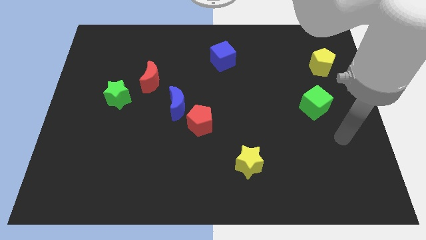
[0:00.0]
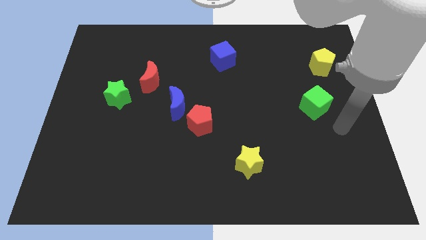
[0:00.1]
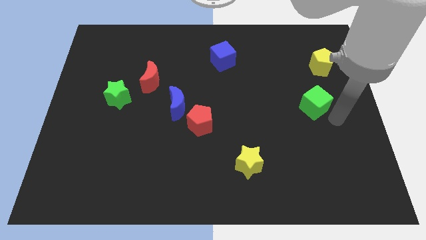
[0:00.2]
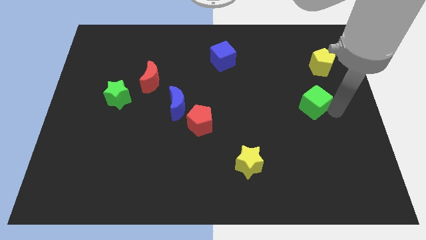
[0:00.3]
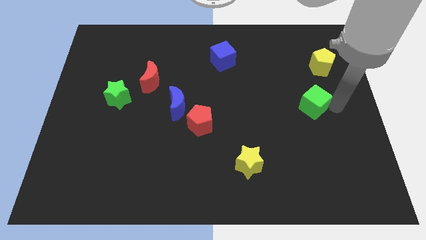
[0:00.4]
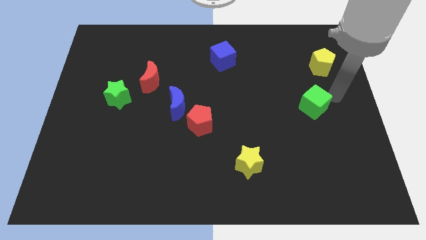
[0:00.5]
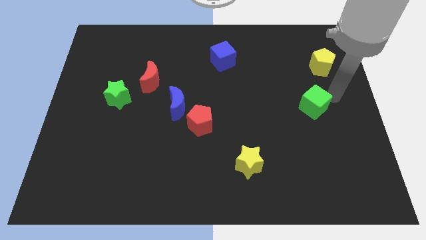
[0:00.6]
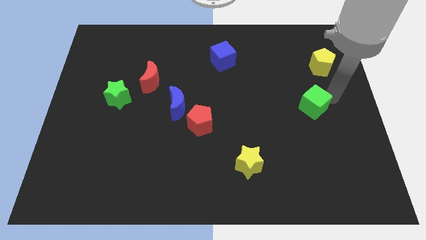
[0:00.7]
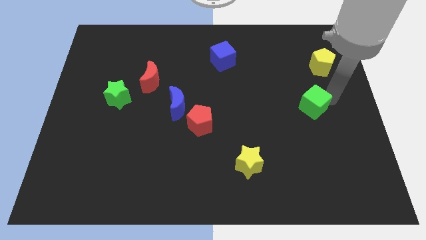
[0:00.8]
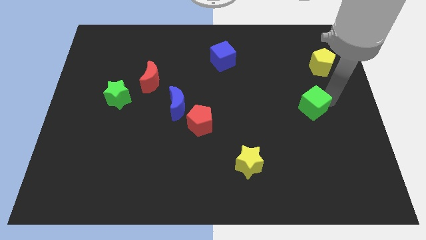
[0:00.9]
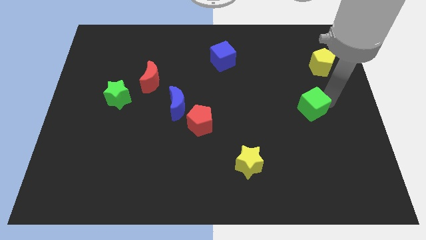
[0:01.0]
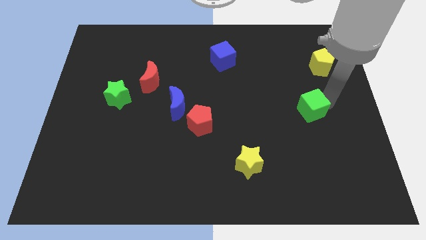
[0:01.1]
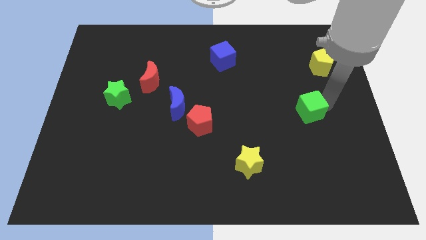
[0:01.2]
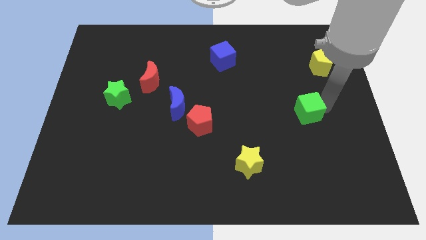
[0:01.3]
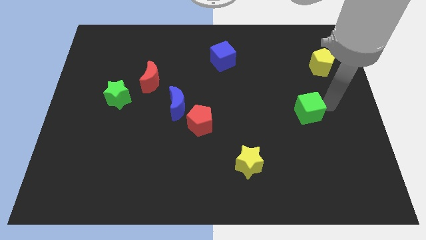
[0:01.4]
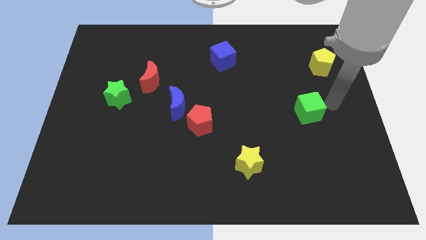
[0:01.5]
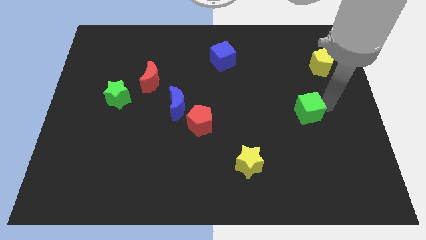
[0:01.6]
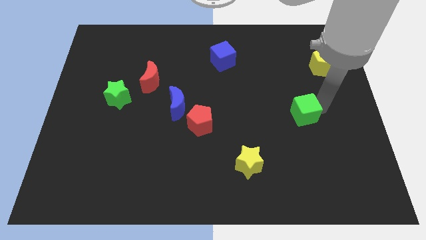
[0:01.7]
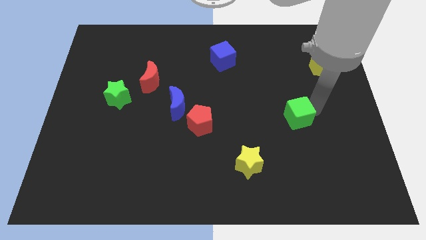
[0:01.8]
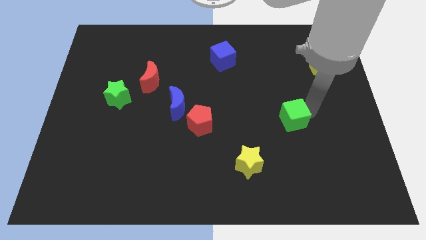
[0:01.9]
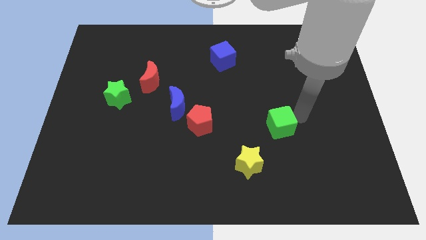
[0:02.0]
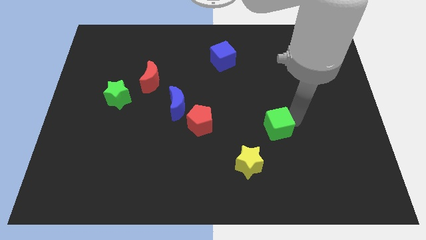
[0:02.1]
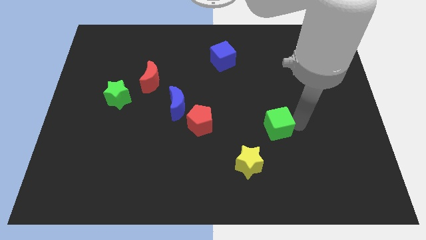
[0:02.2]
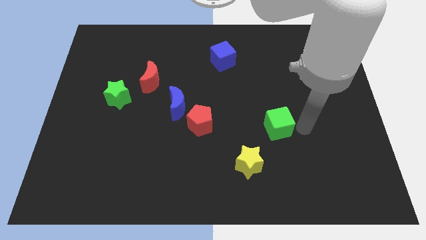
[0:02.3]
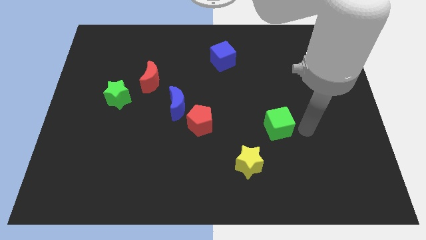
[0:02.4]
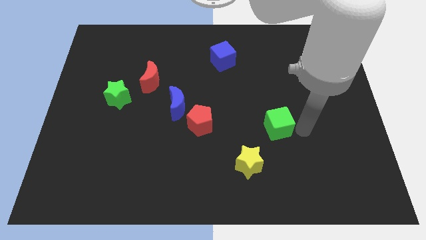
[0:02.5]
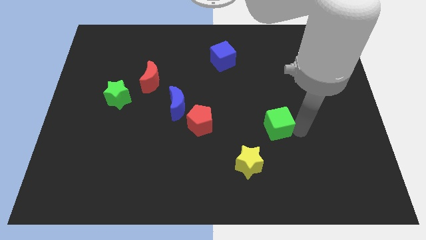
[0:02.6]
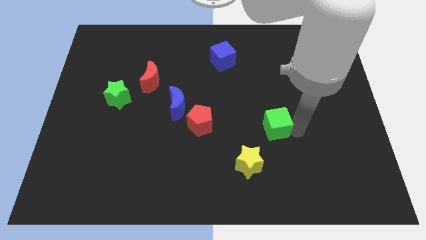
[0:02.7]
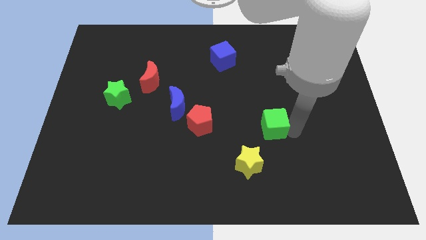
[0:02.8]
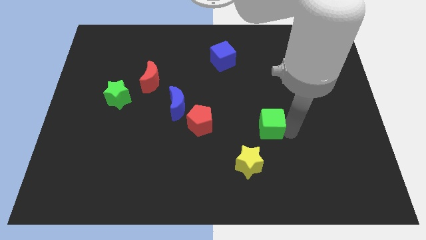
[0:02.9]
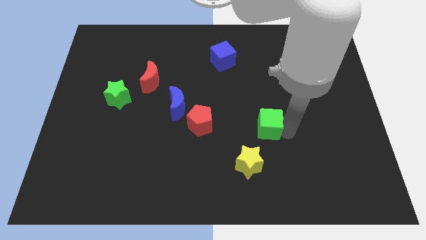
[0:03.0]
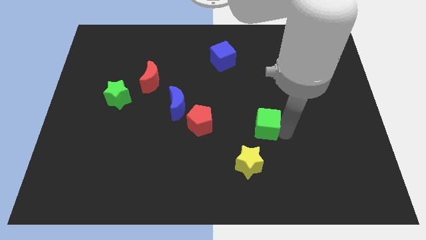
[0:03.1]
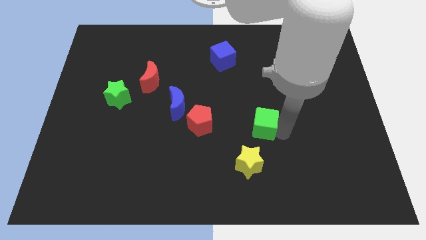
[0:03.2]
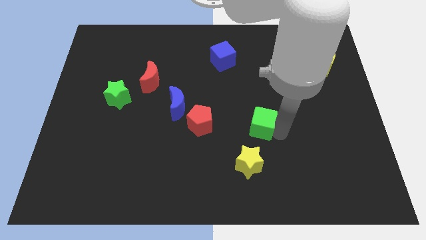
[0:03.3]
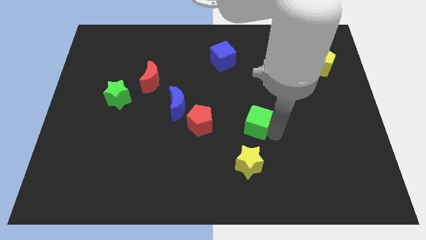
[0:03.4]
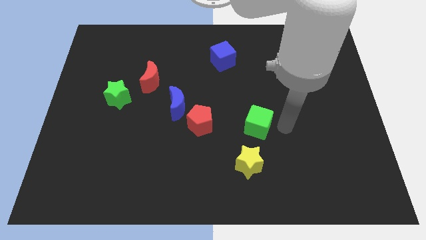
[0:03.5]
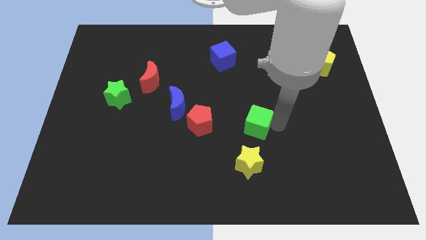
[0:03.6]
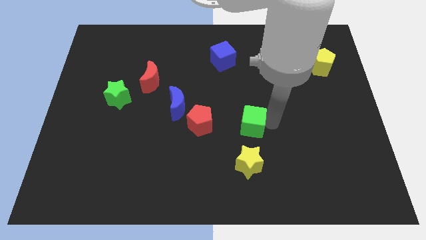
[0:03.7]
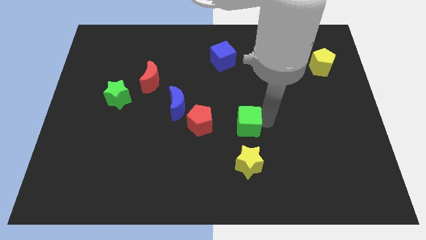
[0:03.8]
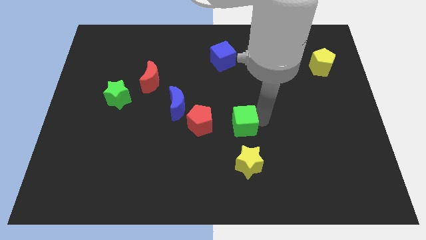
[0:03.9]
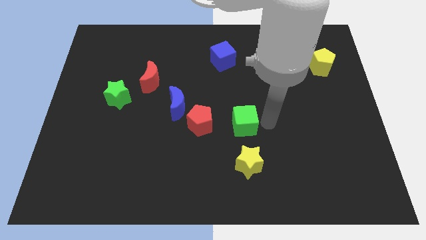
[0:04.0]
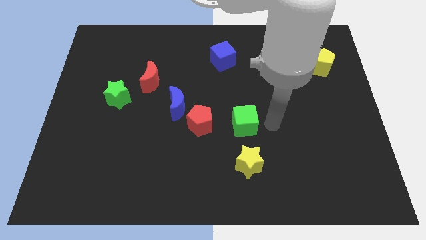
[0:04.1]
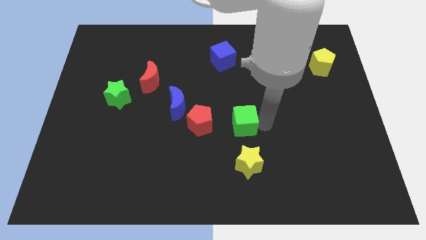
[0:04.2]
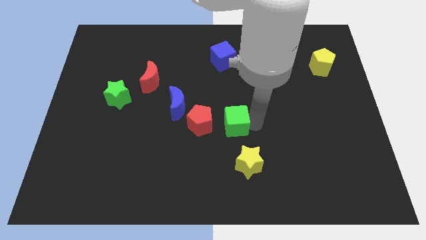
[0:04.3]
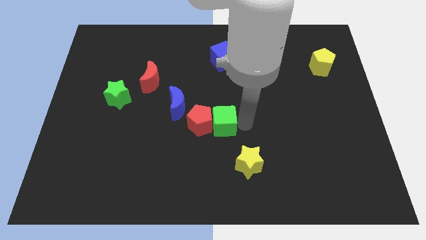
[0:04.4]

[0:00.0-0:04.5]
put the green cube next to the red pentagon

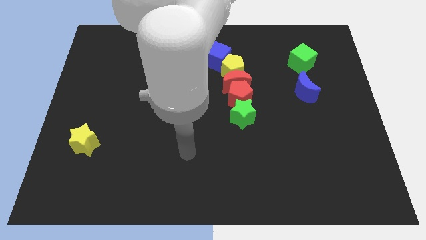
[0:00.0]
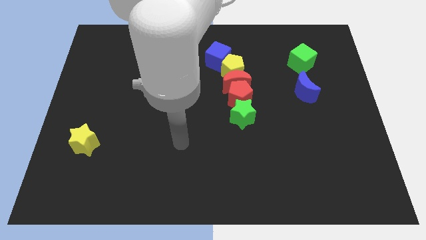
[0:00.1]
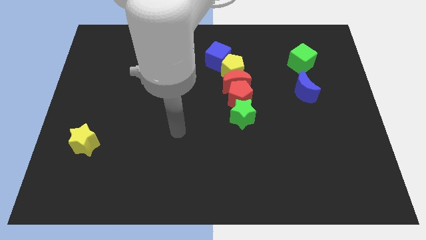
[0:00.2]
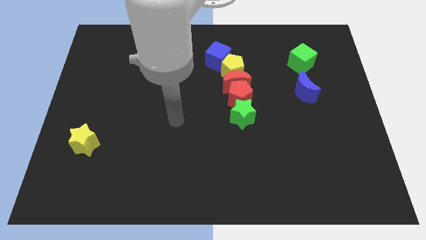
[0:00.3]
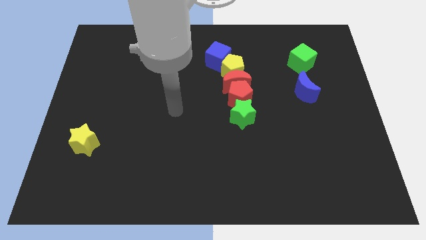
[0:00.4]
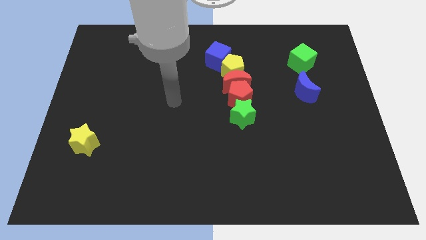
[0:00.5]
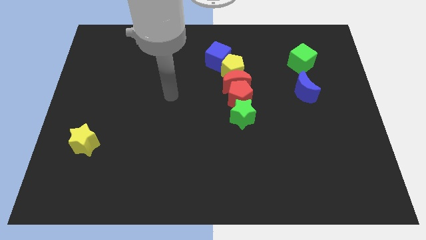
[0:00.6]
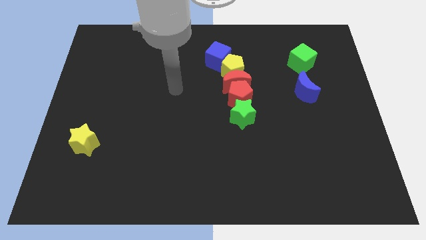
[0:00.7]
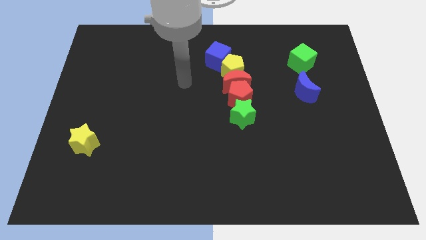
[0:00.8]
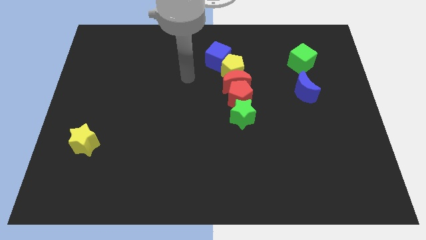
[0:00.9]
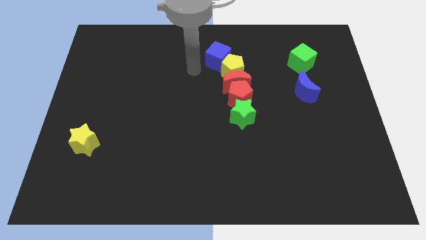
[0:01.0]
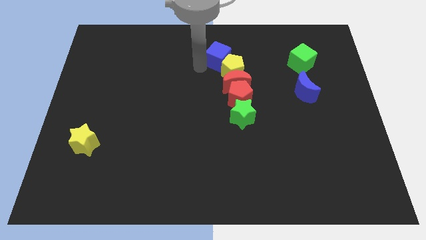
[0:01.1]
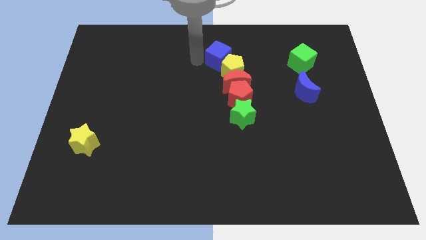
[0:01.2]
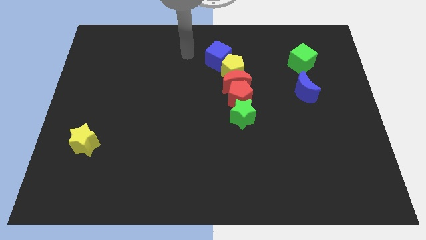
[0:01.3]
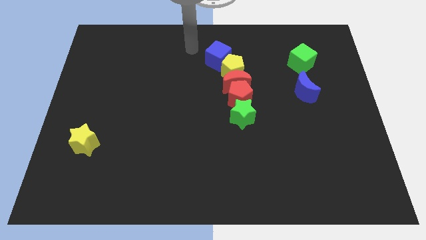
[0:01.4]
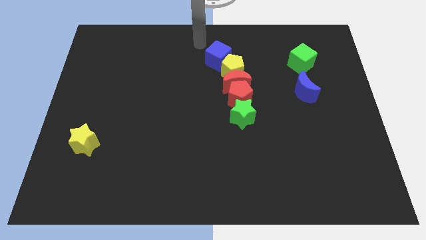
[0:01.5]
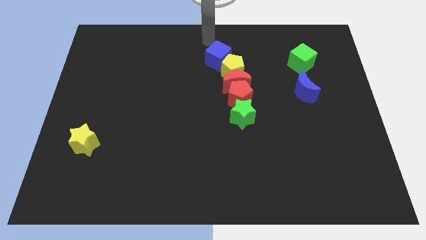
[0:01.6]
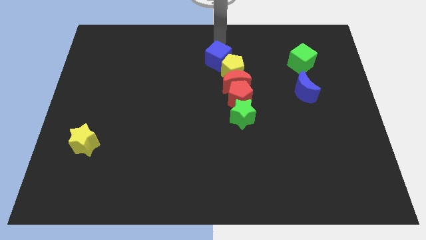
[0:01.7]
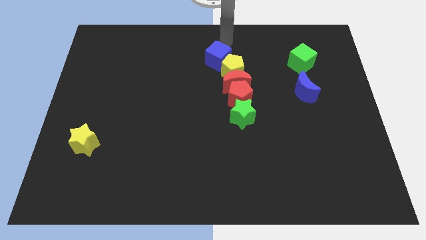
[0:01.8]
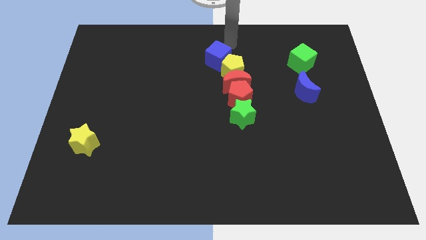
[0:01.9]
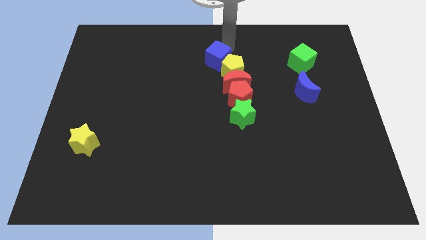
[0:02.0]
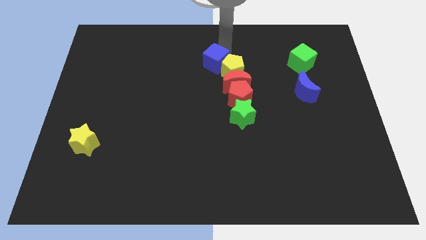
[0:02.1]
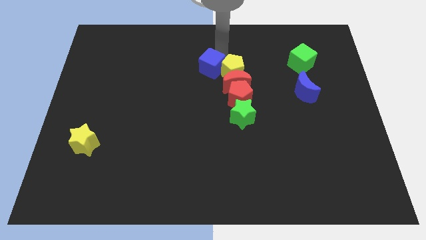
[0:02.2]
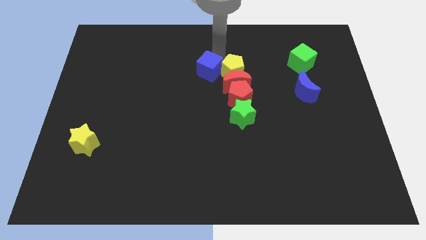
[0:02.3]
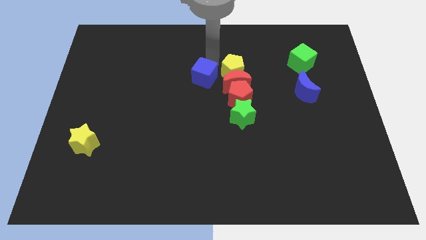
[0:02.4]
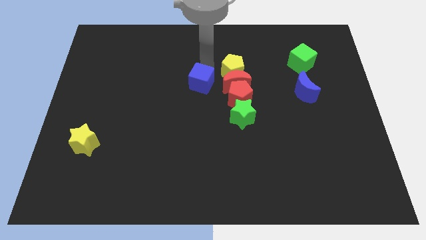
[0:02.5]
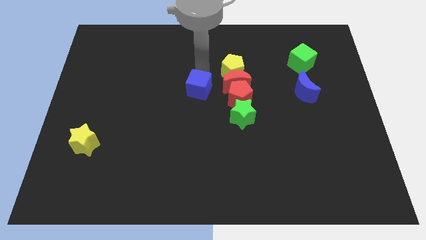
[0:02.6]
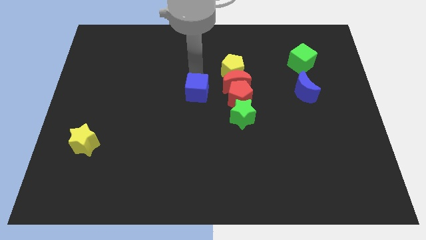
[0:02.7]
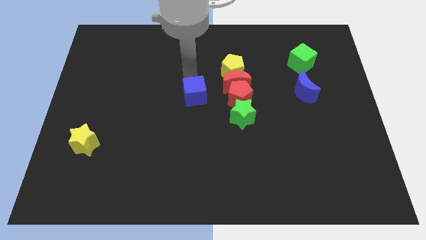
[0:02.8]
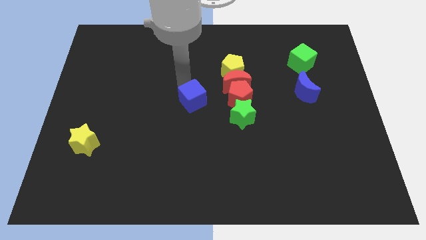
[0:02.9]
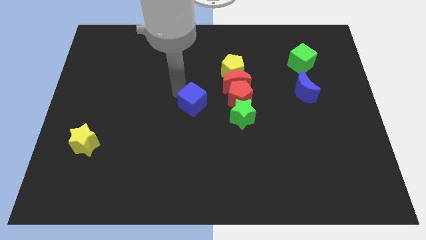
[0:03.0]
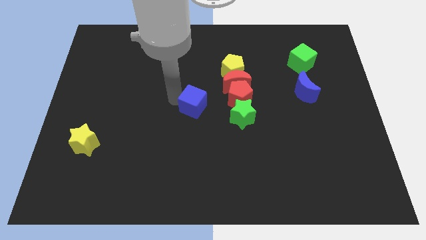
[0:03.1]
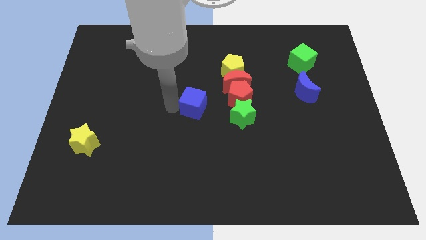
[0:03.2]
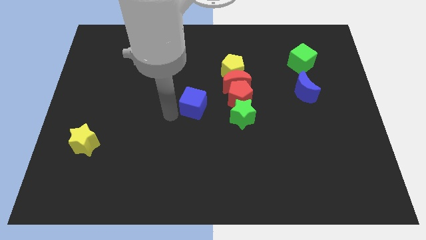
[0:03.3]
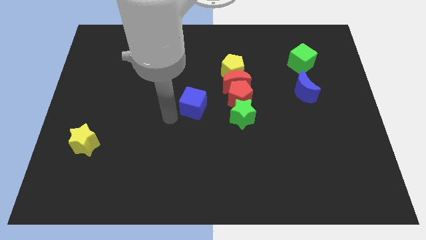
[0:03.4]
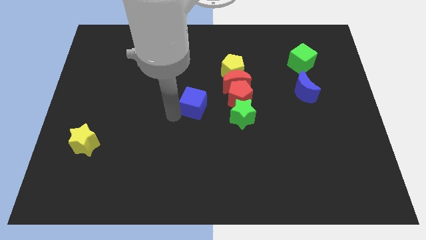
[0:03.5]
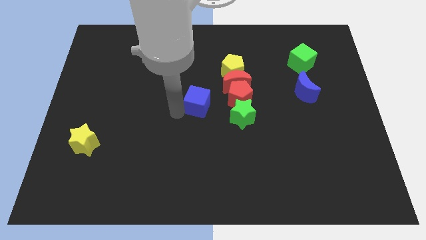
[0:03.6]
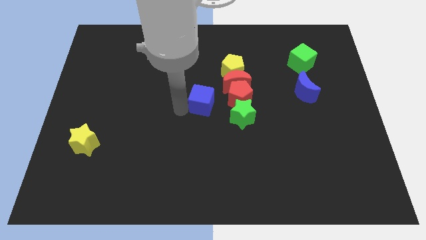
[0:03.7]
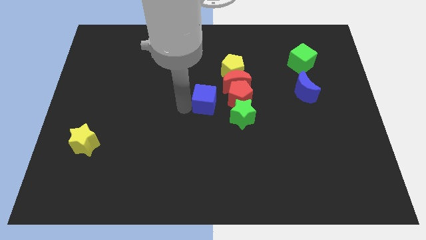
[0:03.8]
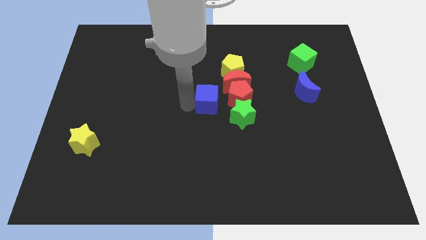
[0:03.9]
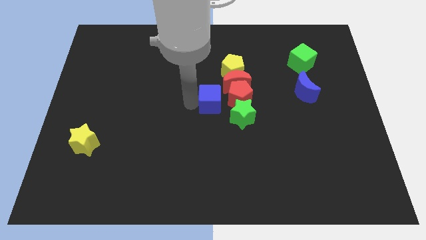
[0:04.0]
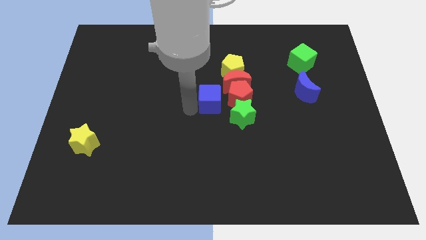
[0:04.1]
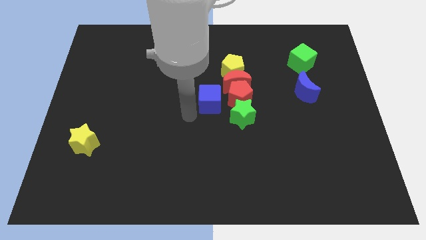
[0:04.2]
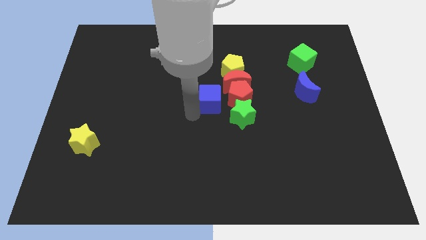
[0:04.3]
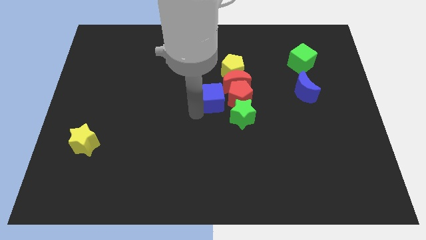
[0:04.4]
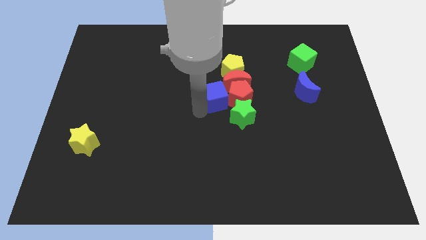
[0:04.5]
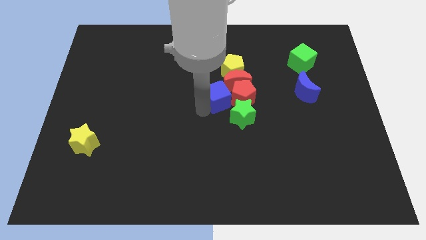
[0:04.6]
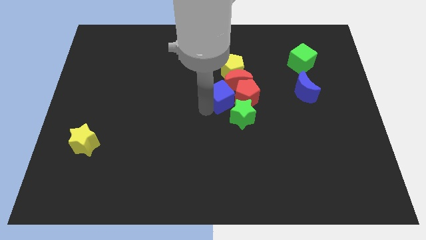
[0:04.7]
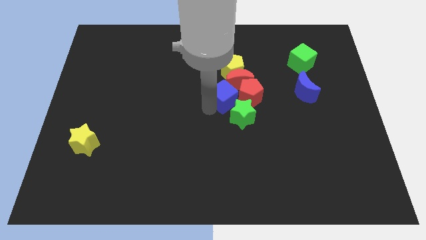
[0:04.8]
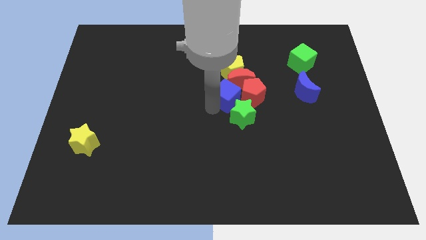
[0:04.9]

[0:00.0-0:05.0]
push the blue cube close to the red moon
